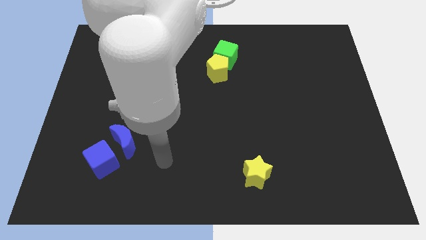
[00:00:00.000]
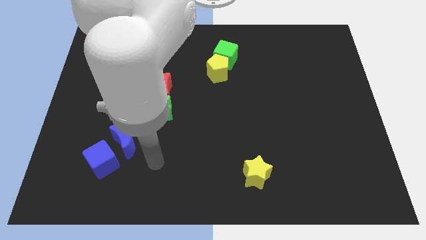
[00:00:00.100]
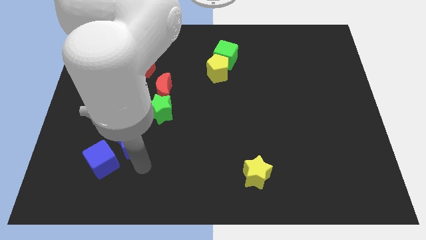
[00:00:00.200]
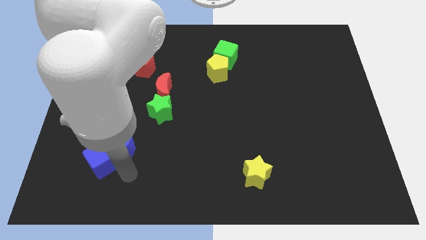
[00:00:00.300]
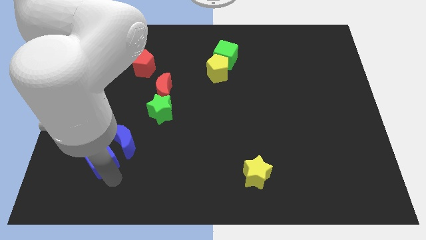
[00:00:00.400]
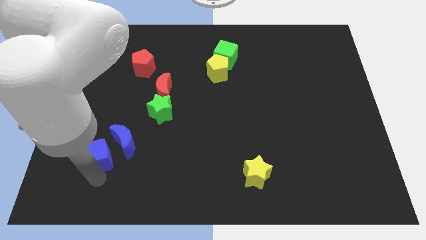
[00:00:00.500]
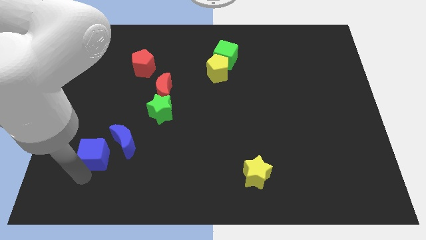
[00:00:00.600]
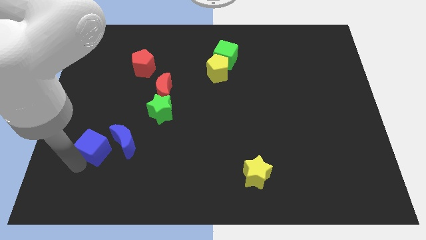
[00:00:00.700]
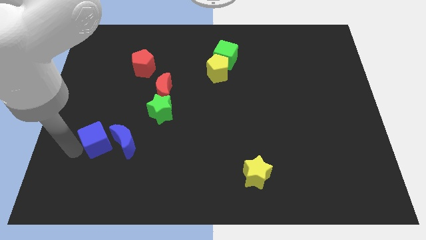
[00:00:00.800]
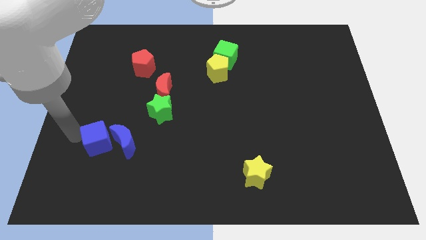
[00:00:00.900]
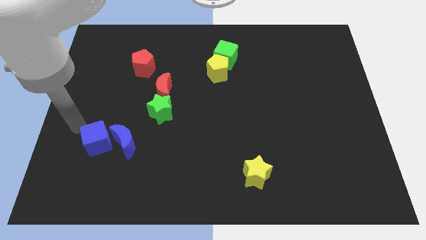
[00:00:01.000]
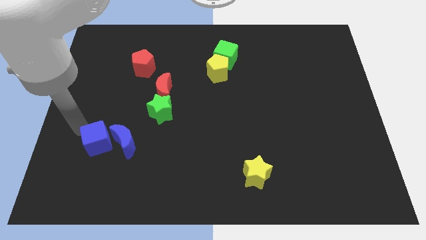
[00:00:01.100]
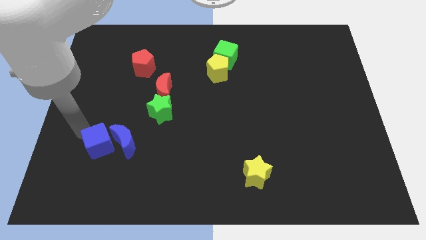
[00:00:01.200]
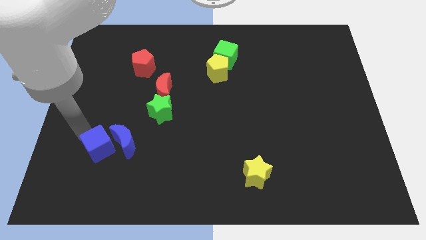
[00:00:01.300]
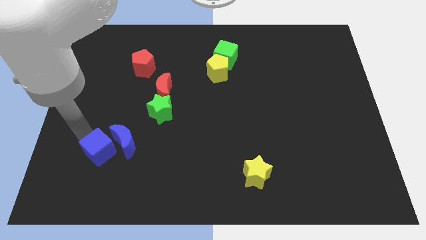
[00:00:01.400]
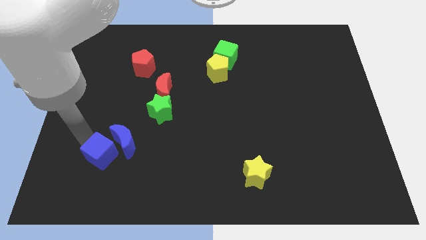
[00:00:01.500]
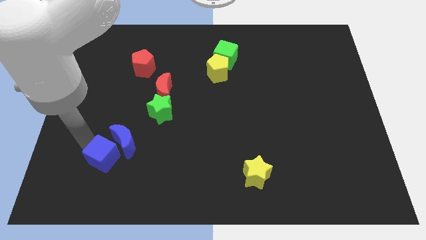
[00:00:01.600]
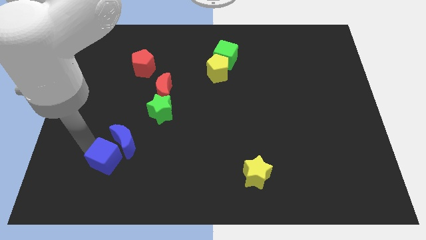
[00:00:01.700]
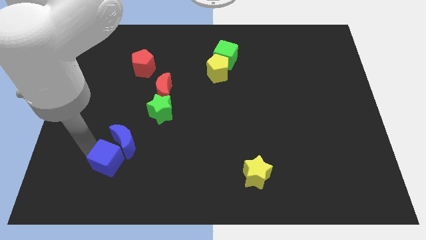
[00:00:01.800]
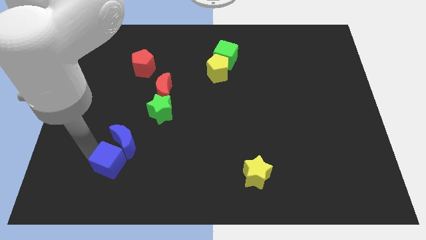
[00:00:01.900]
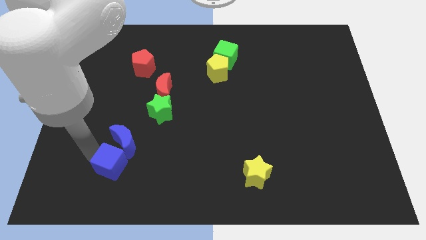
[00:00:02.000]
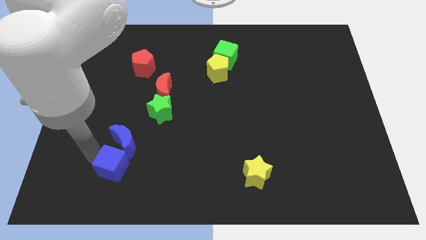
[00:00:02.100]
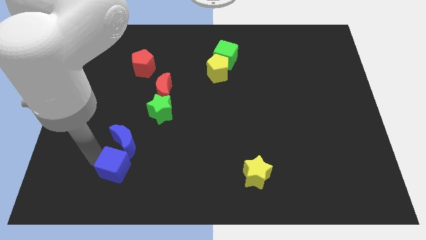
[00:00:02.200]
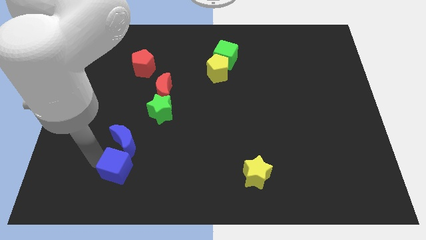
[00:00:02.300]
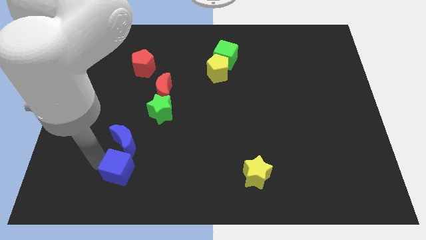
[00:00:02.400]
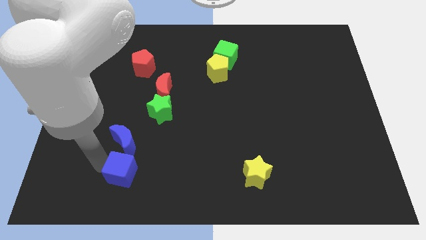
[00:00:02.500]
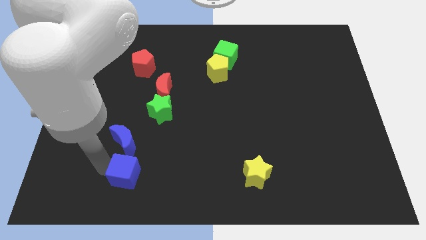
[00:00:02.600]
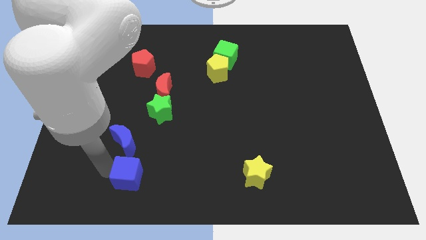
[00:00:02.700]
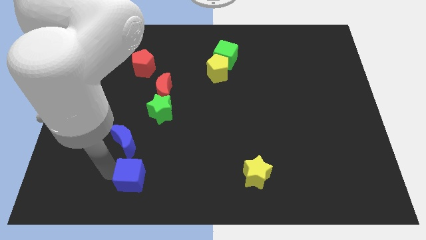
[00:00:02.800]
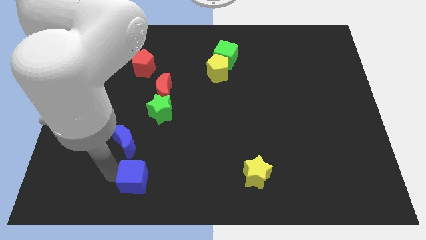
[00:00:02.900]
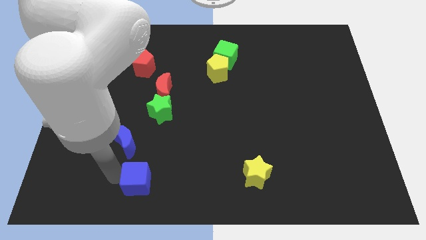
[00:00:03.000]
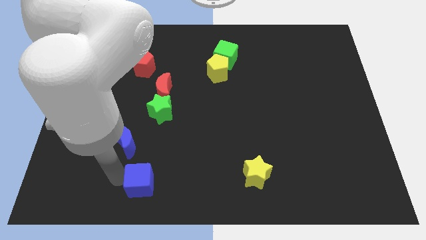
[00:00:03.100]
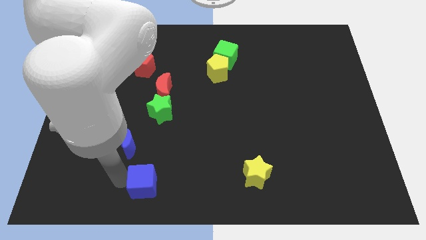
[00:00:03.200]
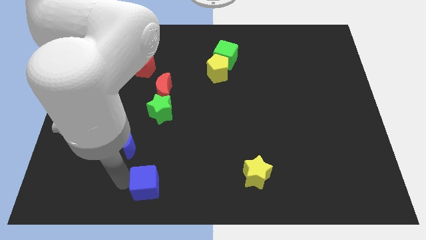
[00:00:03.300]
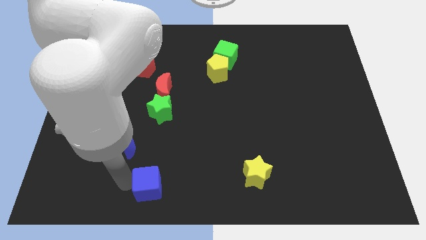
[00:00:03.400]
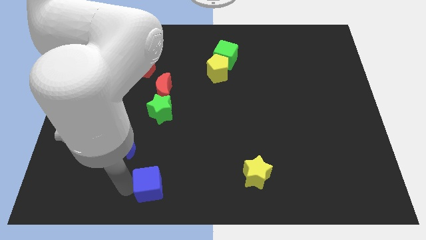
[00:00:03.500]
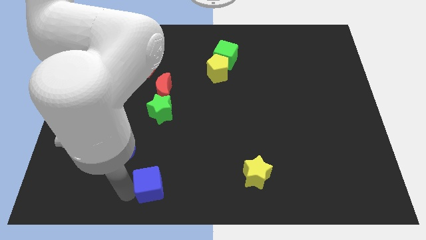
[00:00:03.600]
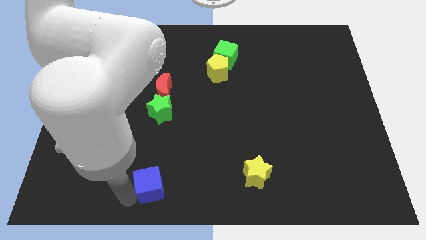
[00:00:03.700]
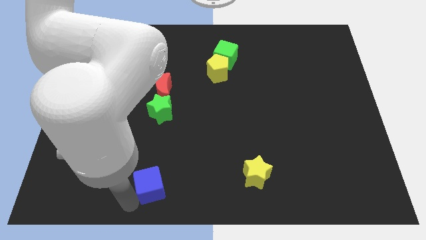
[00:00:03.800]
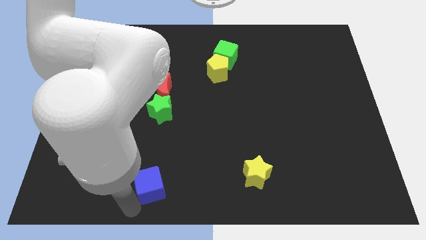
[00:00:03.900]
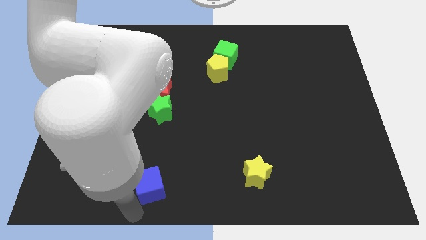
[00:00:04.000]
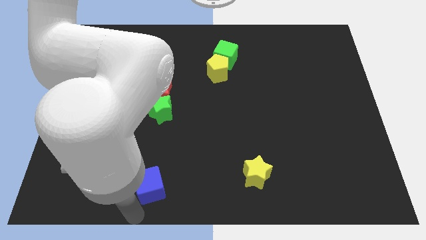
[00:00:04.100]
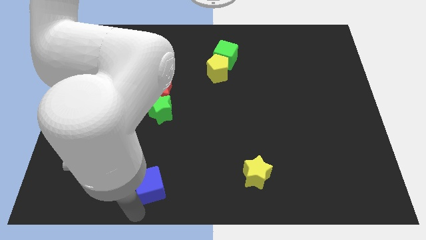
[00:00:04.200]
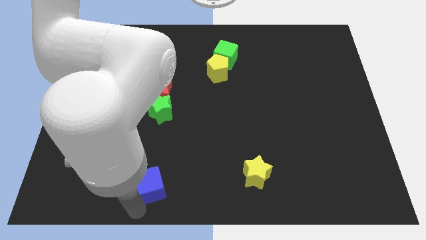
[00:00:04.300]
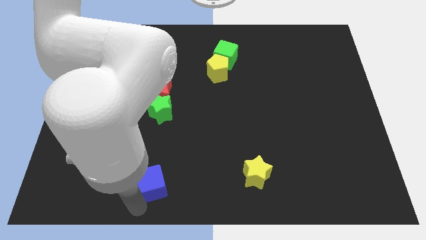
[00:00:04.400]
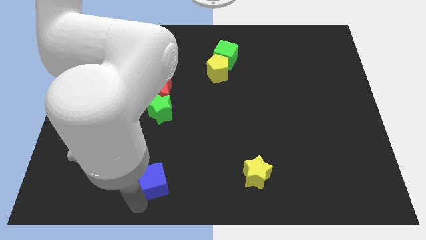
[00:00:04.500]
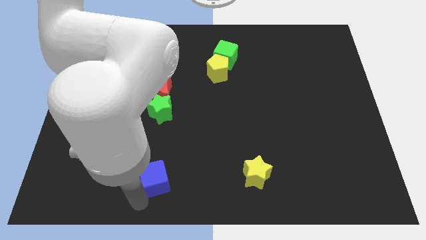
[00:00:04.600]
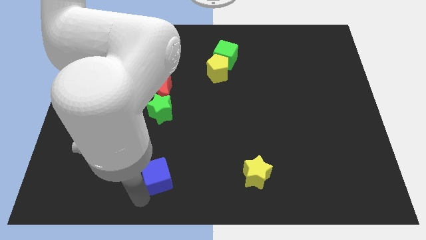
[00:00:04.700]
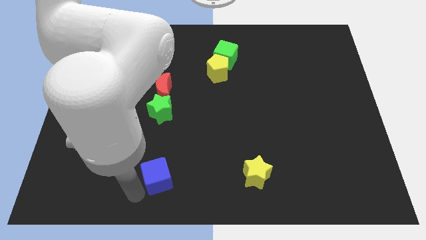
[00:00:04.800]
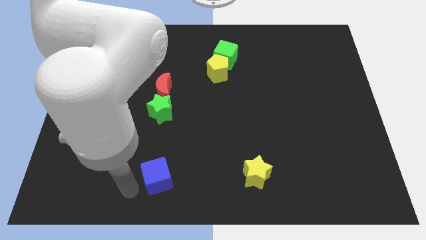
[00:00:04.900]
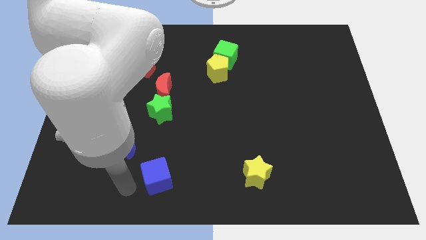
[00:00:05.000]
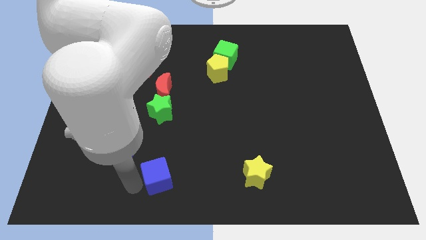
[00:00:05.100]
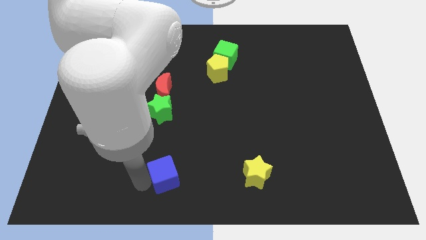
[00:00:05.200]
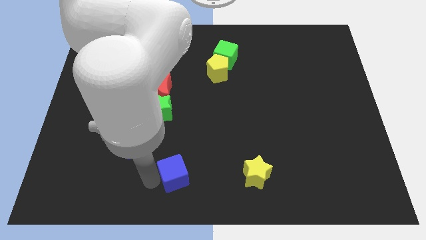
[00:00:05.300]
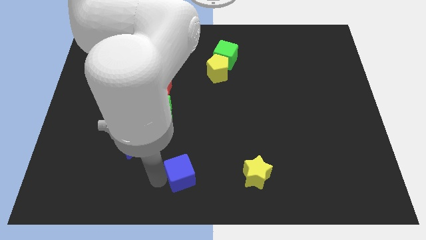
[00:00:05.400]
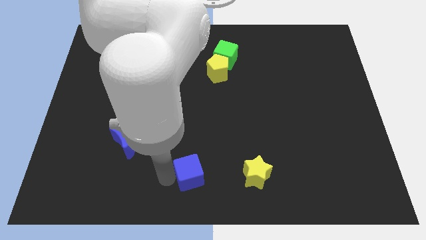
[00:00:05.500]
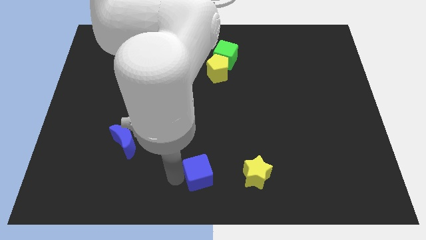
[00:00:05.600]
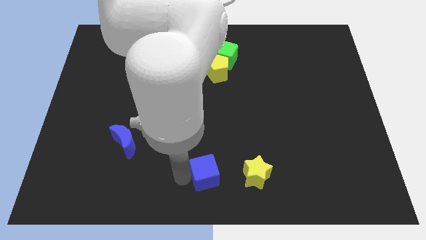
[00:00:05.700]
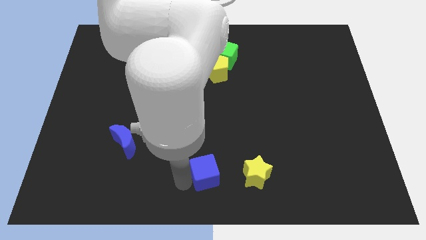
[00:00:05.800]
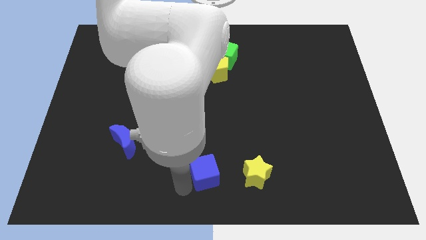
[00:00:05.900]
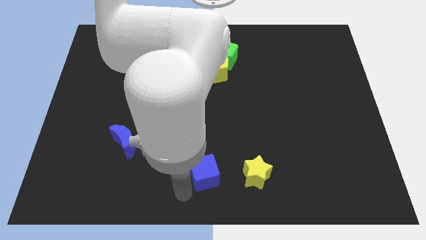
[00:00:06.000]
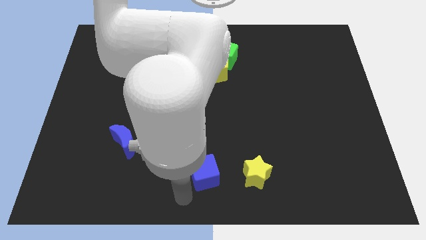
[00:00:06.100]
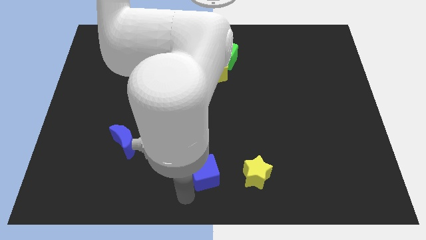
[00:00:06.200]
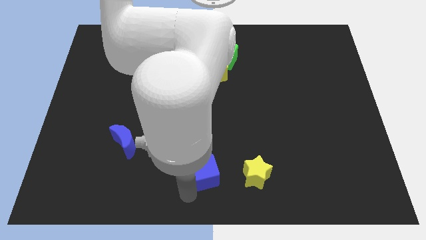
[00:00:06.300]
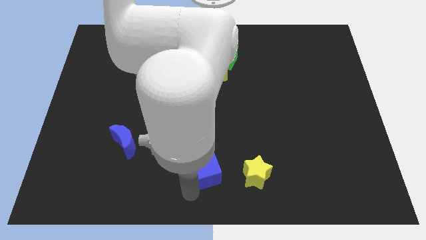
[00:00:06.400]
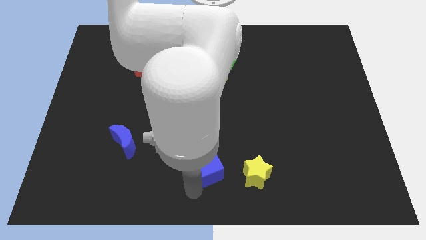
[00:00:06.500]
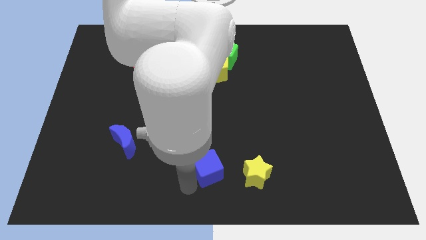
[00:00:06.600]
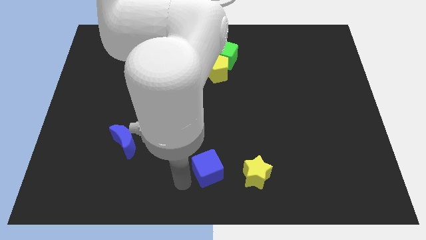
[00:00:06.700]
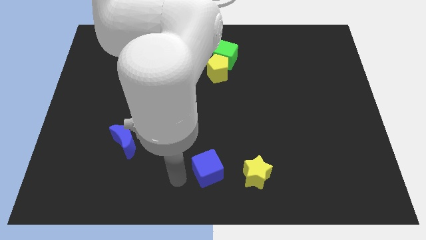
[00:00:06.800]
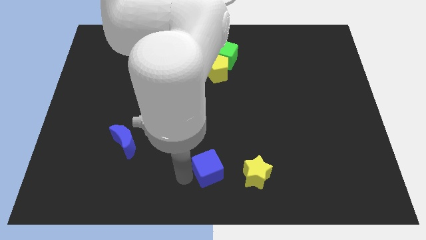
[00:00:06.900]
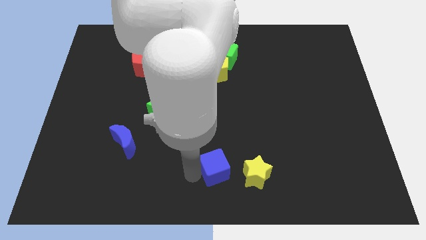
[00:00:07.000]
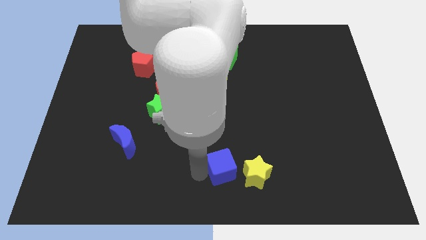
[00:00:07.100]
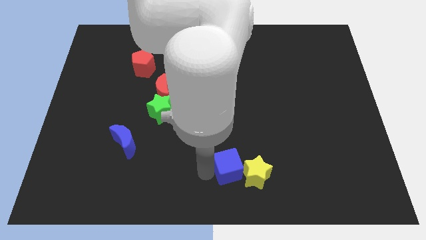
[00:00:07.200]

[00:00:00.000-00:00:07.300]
slide the blue cube close to the yellow star

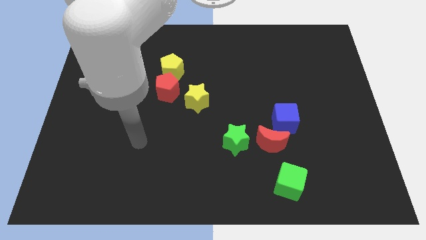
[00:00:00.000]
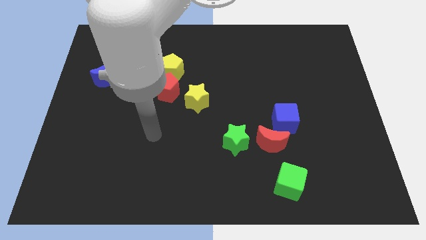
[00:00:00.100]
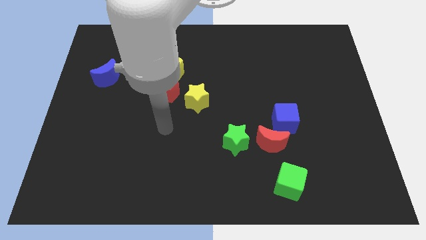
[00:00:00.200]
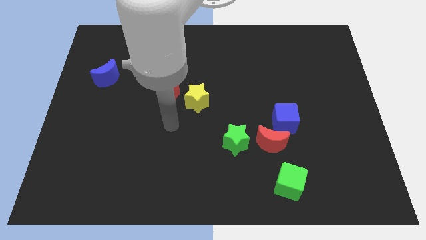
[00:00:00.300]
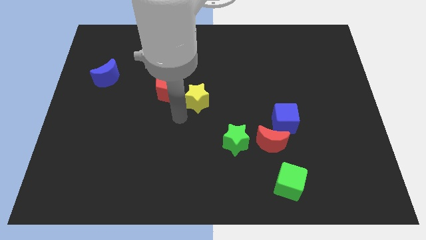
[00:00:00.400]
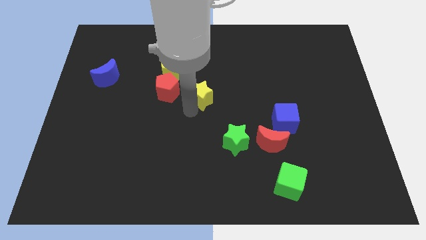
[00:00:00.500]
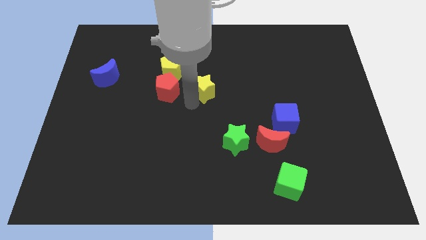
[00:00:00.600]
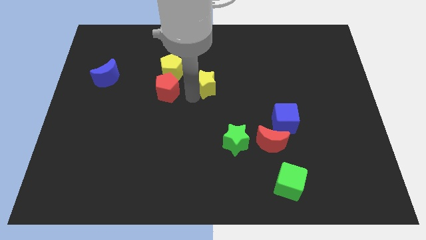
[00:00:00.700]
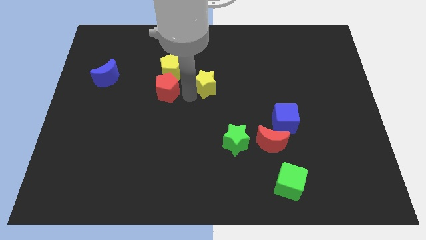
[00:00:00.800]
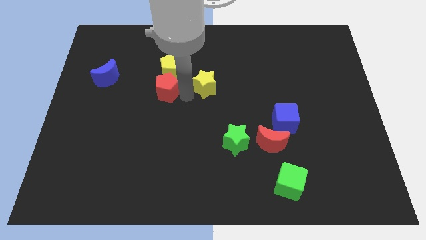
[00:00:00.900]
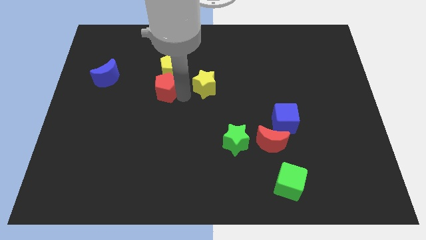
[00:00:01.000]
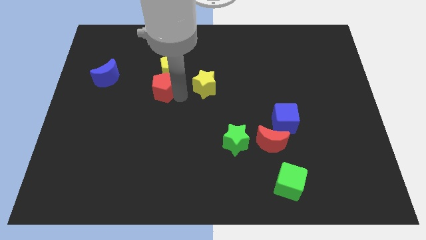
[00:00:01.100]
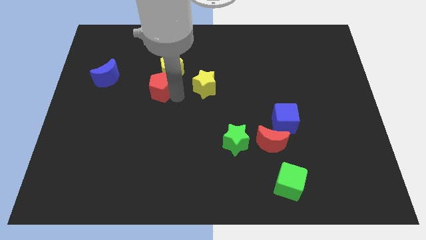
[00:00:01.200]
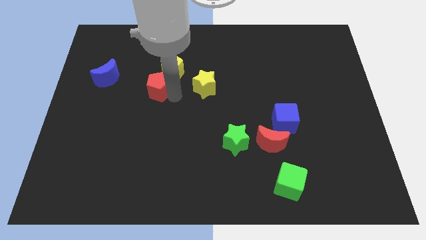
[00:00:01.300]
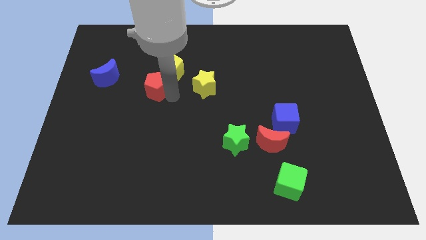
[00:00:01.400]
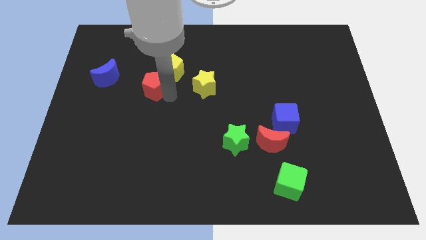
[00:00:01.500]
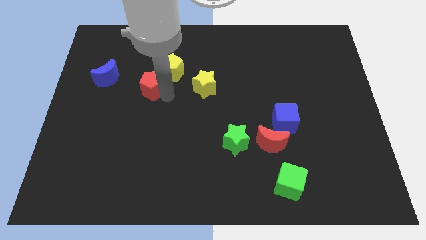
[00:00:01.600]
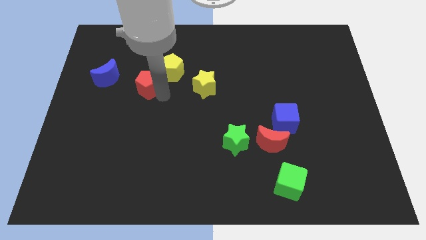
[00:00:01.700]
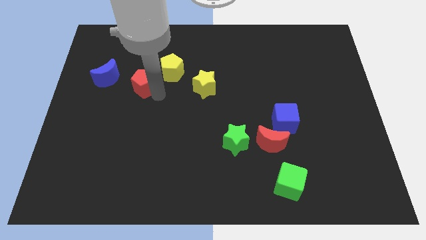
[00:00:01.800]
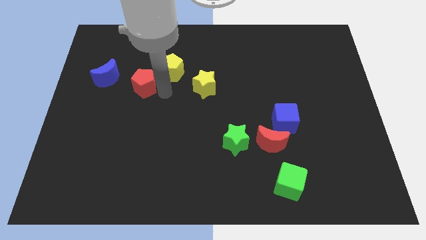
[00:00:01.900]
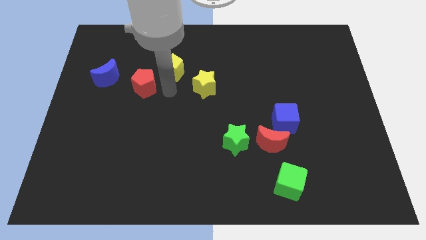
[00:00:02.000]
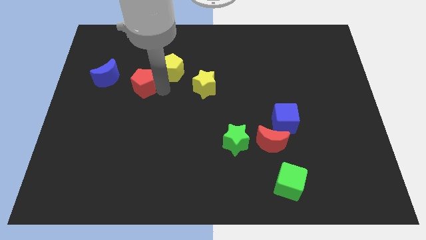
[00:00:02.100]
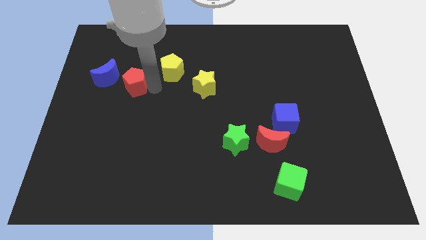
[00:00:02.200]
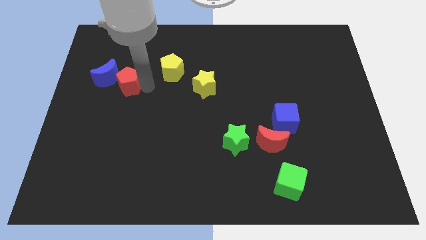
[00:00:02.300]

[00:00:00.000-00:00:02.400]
put the red pentagon towards the blue moon
